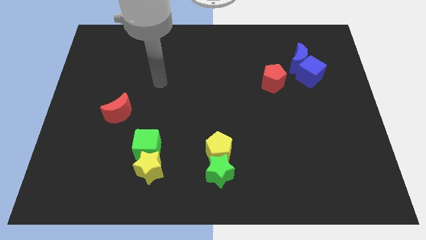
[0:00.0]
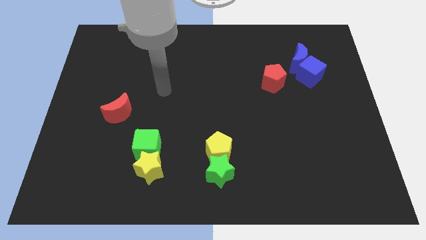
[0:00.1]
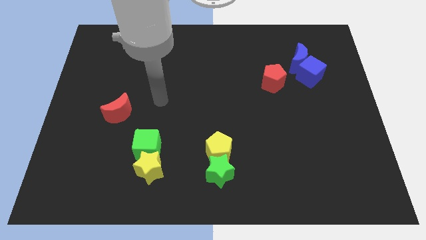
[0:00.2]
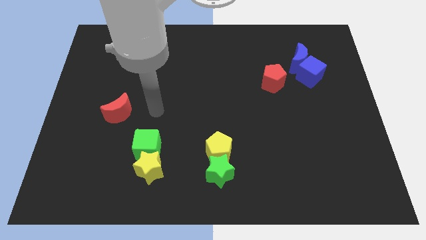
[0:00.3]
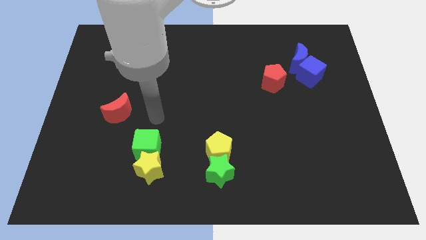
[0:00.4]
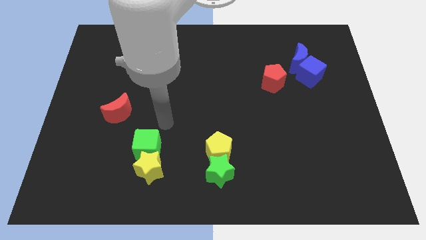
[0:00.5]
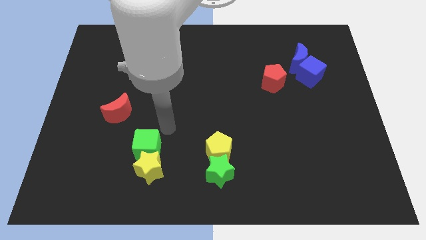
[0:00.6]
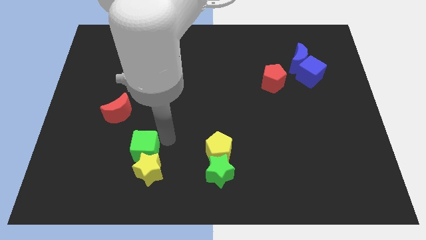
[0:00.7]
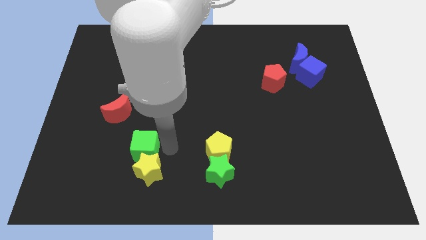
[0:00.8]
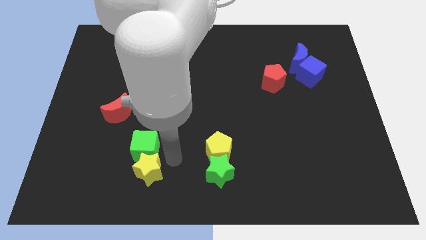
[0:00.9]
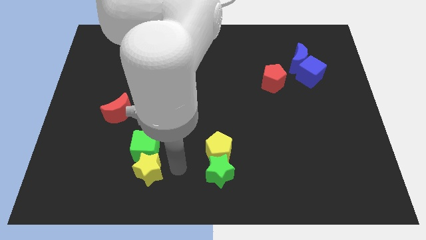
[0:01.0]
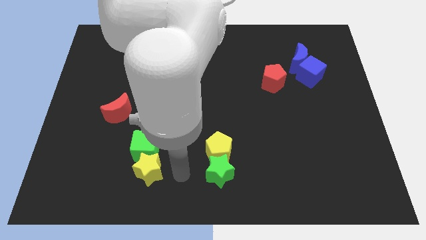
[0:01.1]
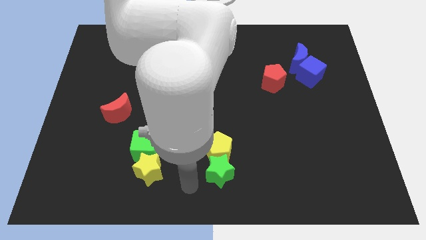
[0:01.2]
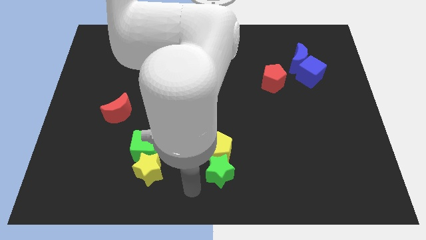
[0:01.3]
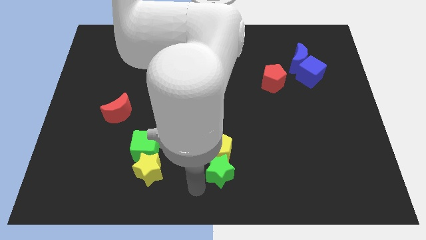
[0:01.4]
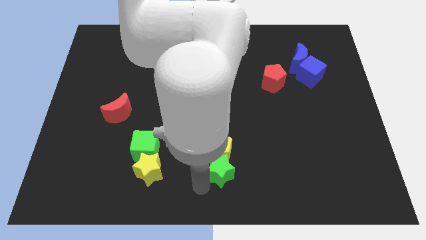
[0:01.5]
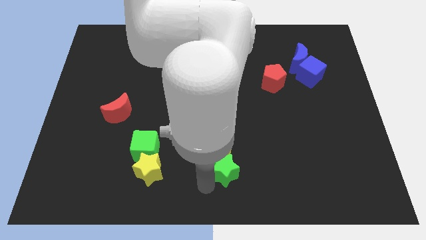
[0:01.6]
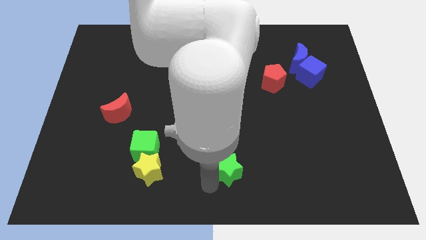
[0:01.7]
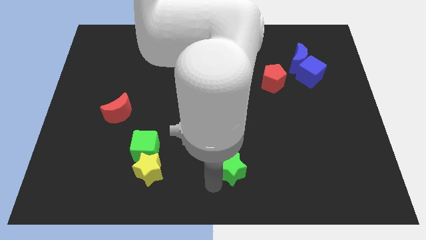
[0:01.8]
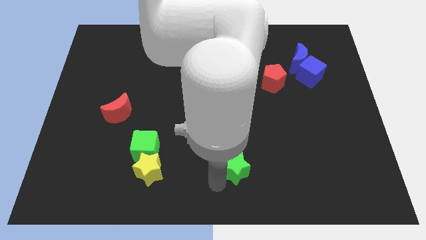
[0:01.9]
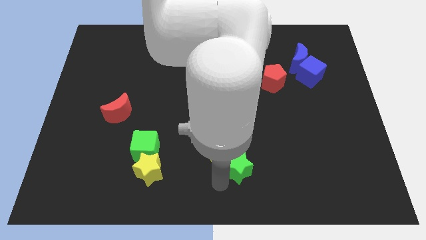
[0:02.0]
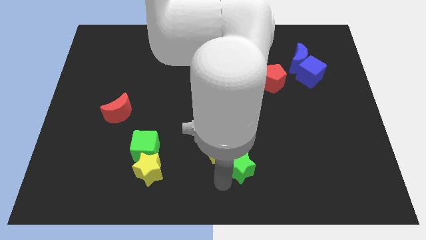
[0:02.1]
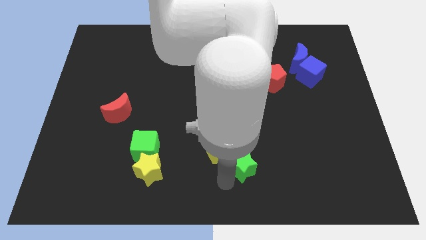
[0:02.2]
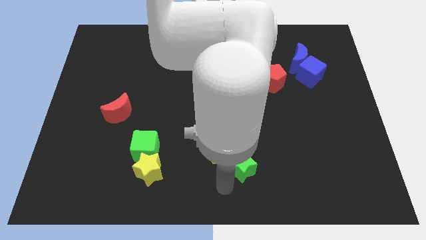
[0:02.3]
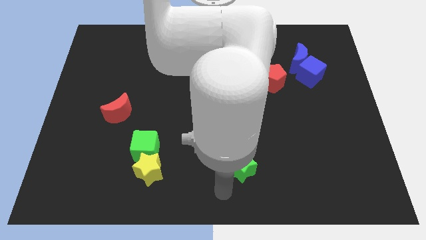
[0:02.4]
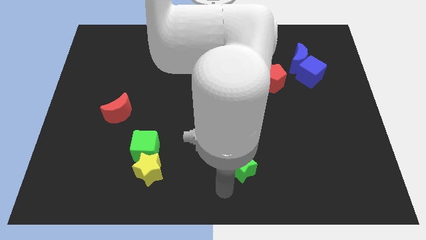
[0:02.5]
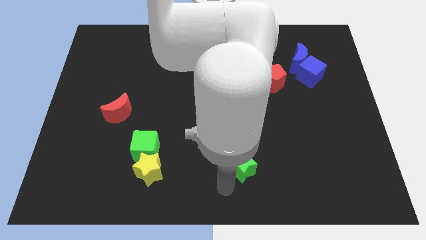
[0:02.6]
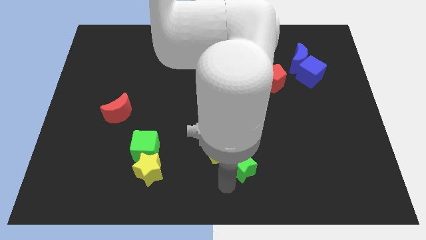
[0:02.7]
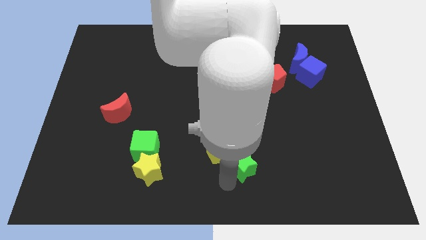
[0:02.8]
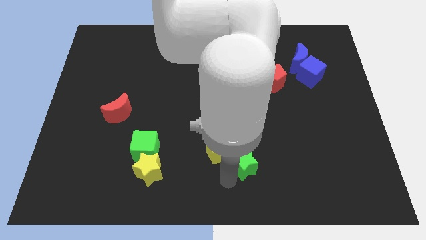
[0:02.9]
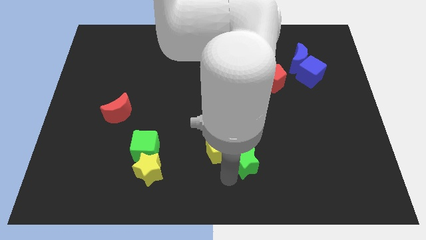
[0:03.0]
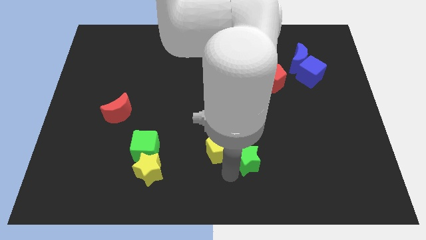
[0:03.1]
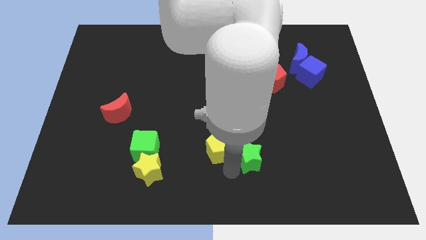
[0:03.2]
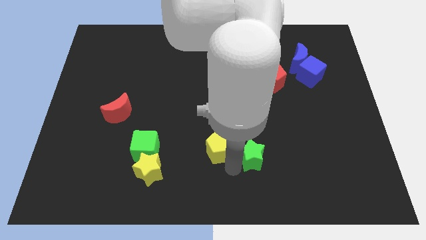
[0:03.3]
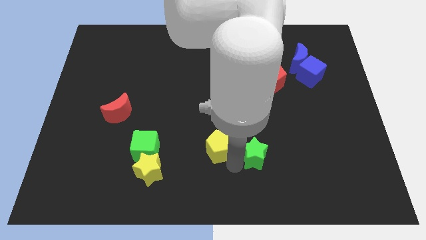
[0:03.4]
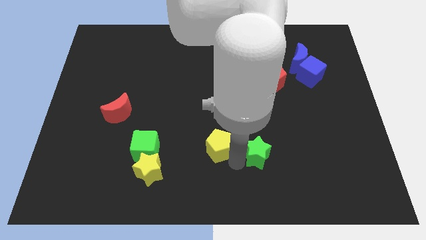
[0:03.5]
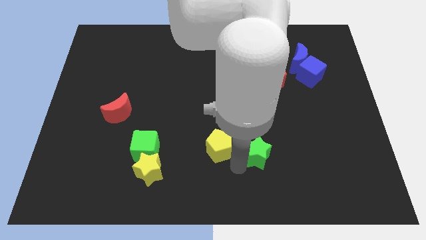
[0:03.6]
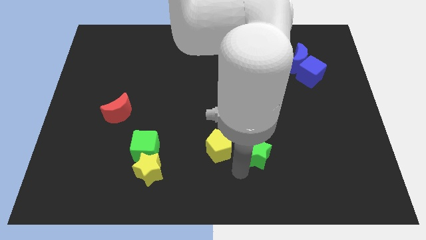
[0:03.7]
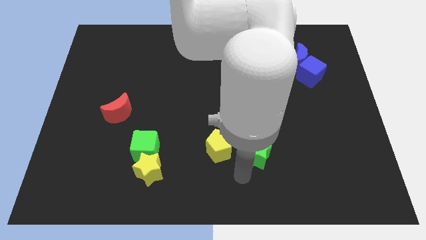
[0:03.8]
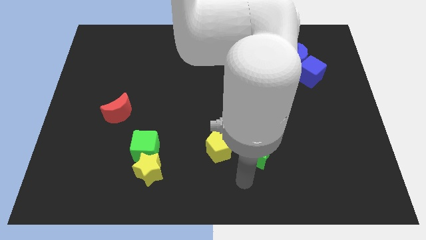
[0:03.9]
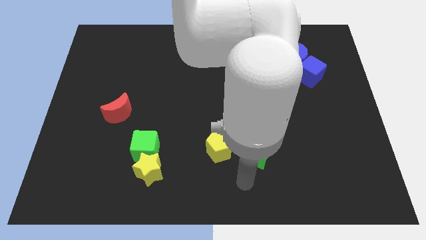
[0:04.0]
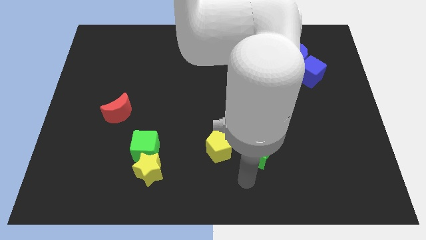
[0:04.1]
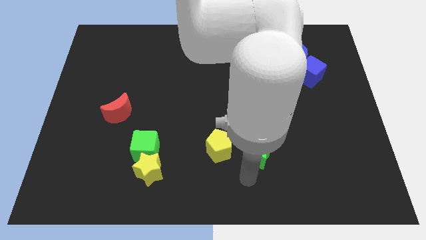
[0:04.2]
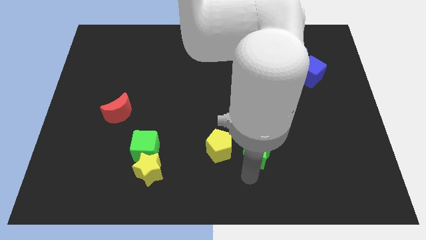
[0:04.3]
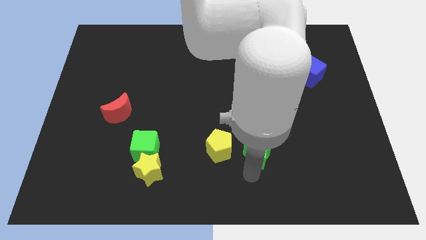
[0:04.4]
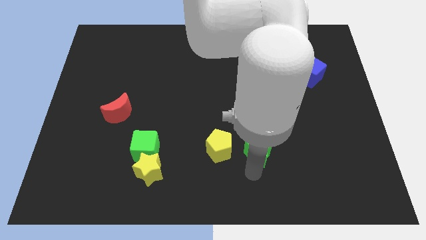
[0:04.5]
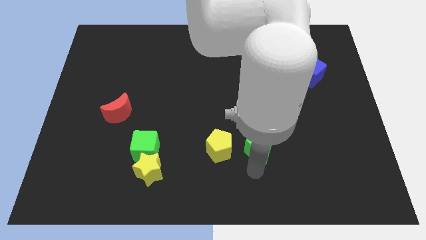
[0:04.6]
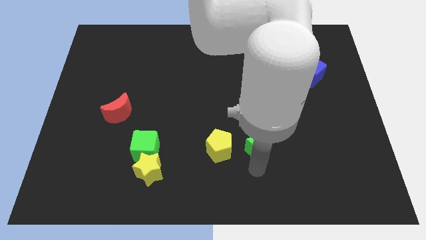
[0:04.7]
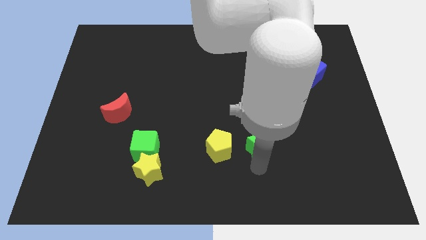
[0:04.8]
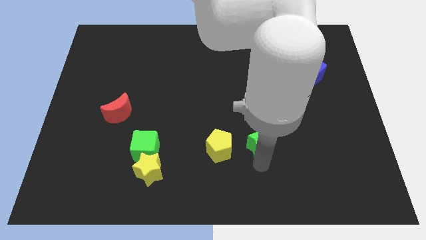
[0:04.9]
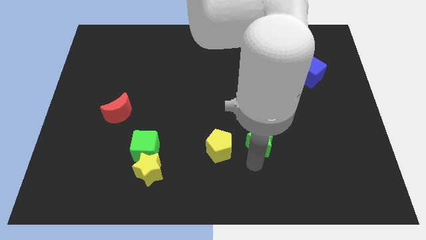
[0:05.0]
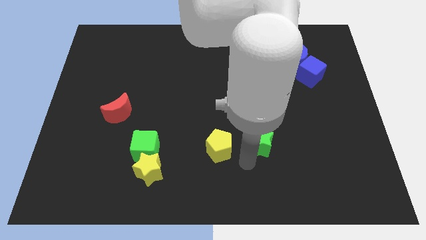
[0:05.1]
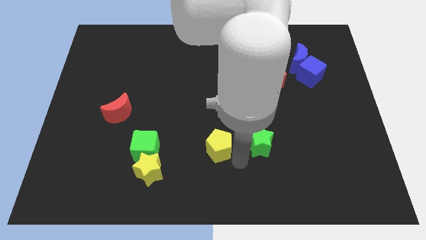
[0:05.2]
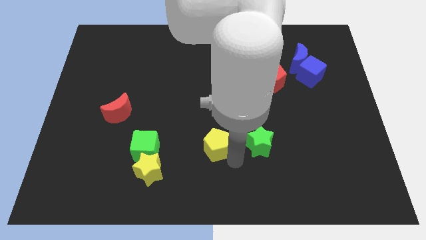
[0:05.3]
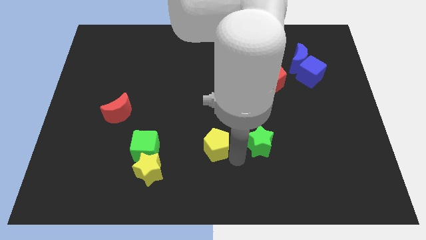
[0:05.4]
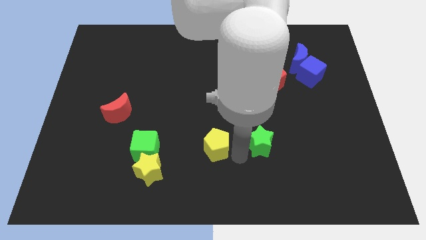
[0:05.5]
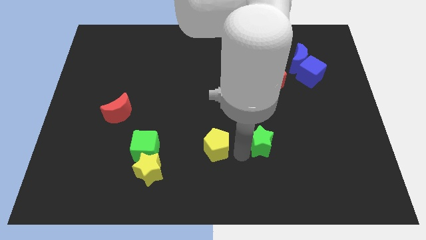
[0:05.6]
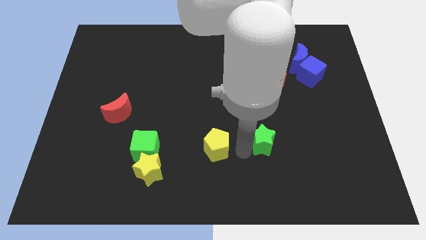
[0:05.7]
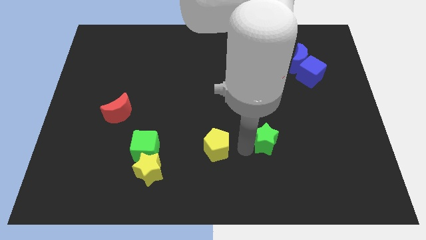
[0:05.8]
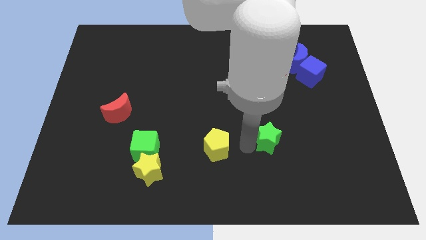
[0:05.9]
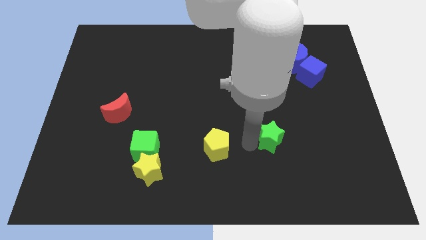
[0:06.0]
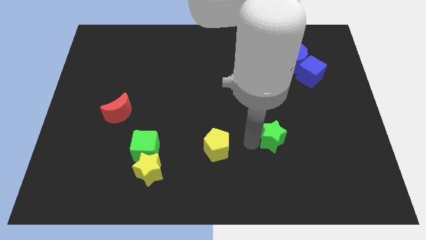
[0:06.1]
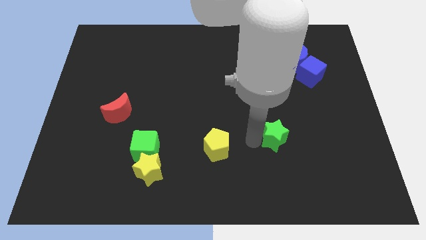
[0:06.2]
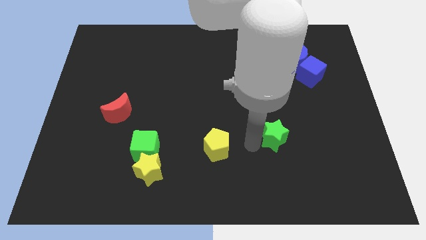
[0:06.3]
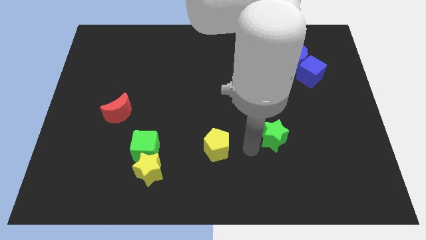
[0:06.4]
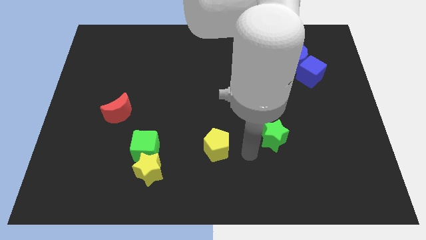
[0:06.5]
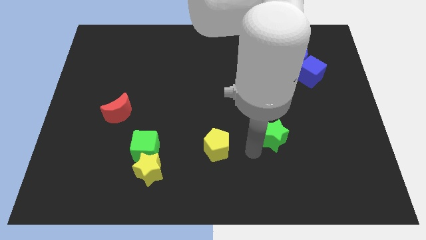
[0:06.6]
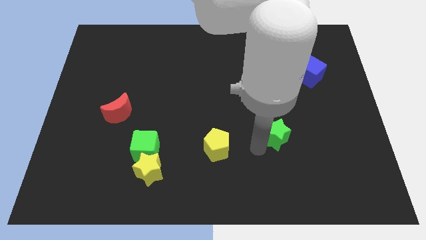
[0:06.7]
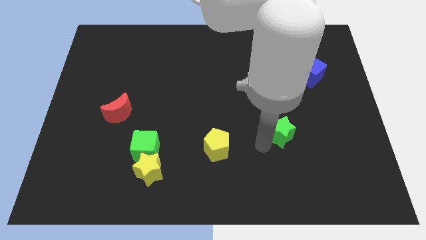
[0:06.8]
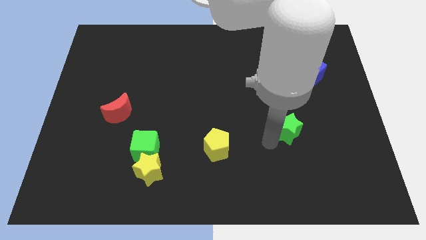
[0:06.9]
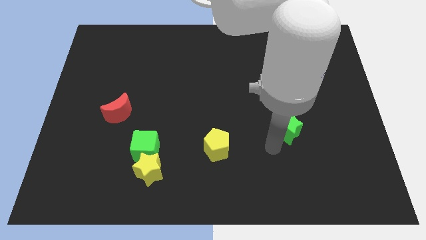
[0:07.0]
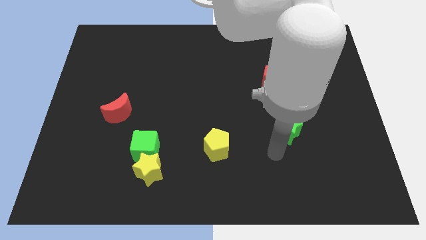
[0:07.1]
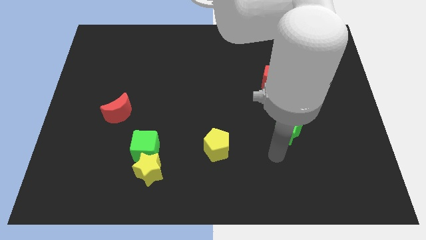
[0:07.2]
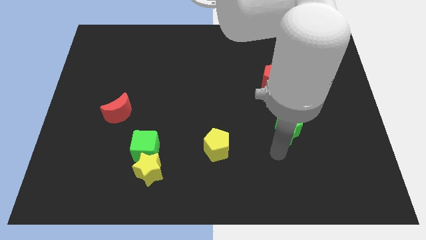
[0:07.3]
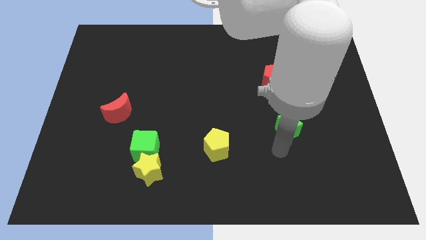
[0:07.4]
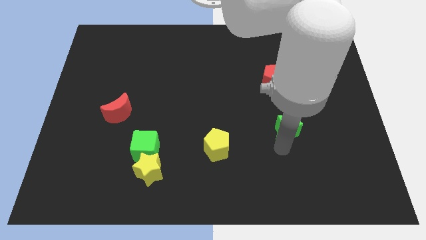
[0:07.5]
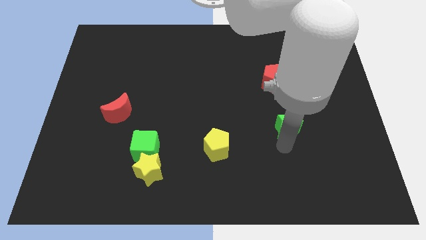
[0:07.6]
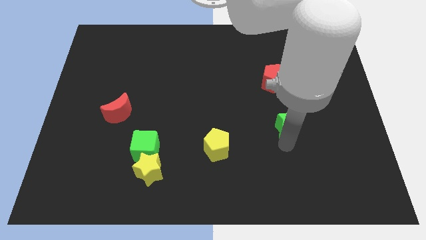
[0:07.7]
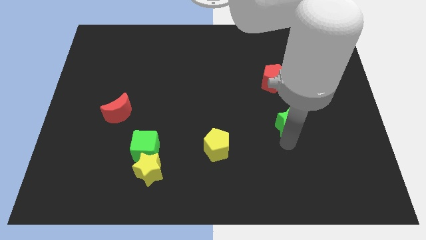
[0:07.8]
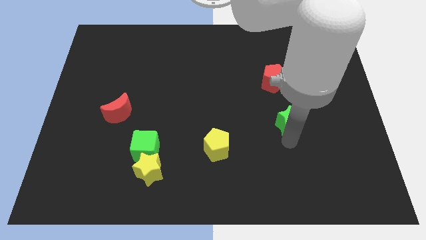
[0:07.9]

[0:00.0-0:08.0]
push the green star up and then to the right
